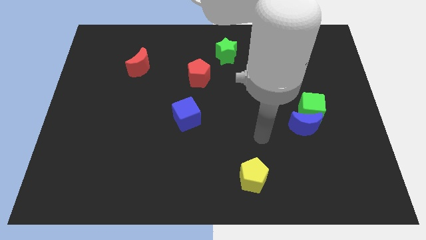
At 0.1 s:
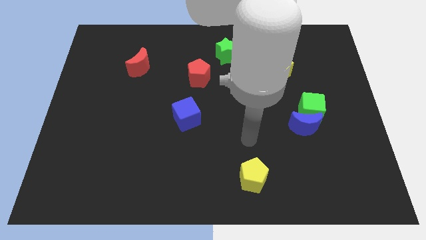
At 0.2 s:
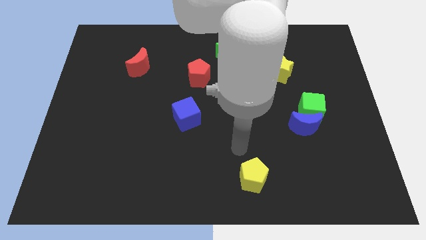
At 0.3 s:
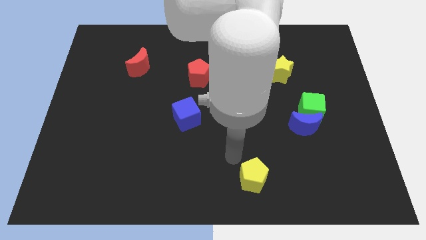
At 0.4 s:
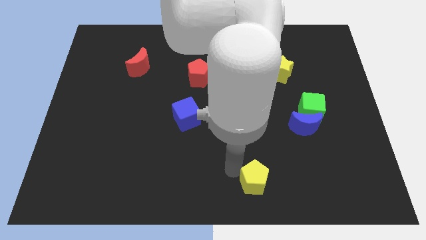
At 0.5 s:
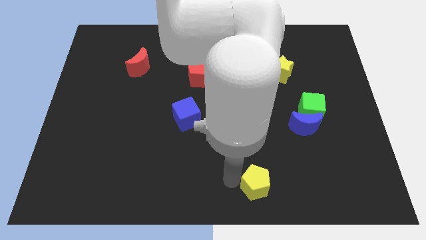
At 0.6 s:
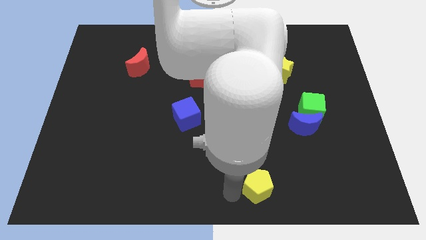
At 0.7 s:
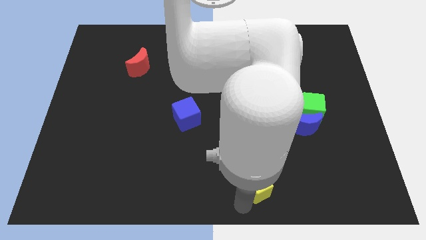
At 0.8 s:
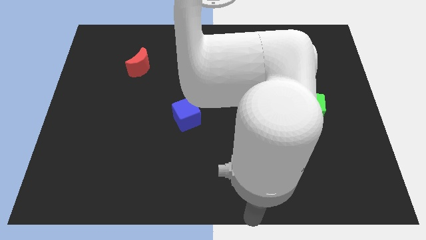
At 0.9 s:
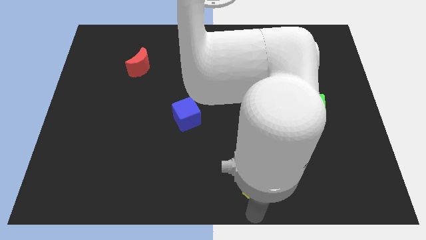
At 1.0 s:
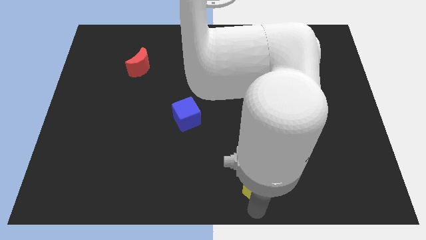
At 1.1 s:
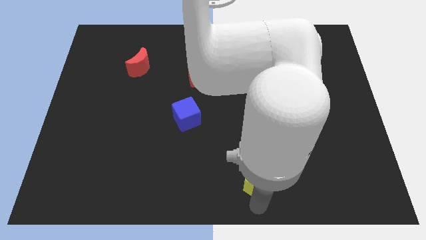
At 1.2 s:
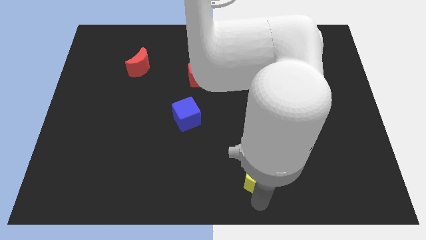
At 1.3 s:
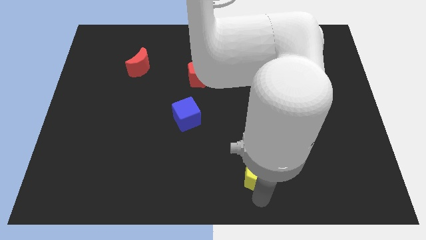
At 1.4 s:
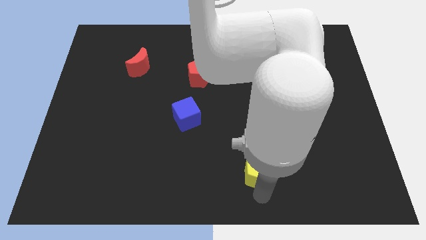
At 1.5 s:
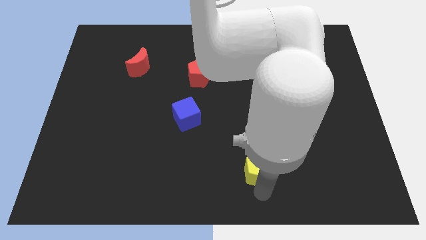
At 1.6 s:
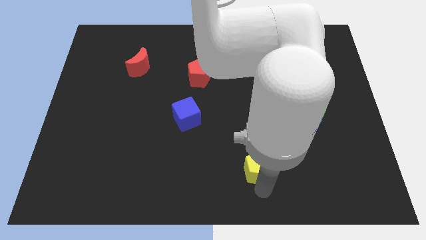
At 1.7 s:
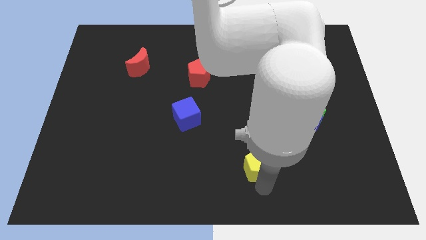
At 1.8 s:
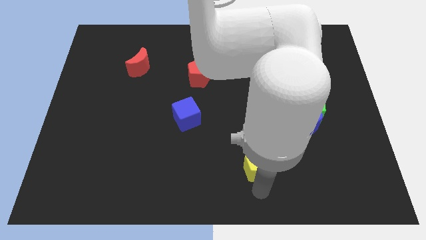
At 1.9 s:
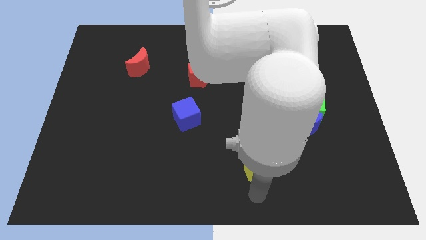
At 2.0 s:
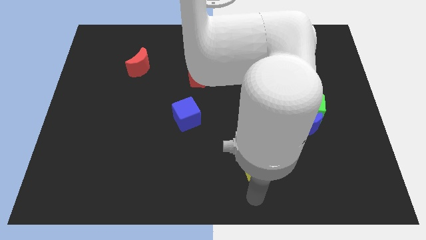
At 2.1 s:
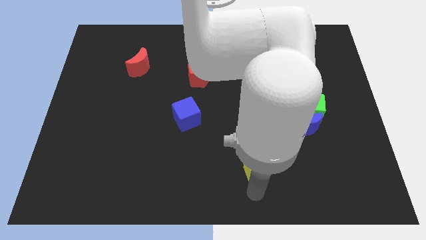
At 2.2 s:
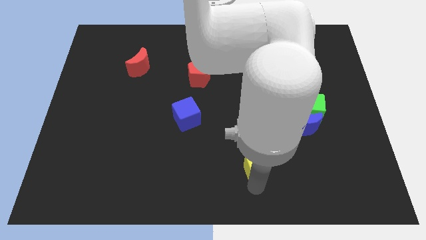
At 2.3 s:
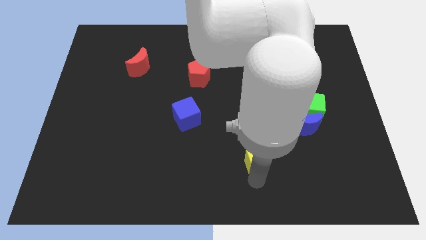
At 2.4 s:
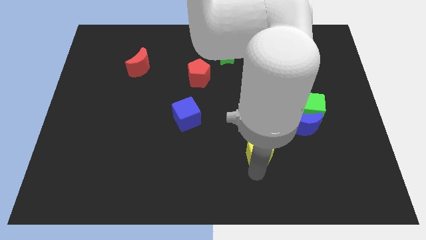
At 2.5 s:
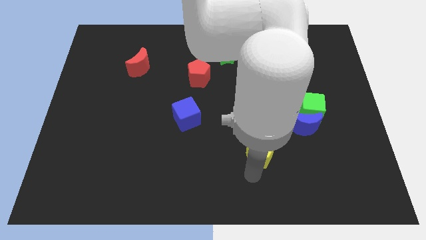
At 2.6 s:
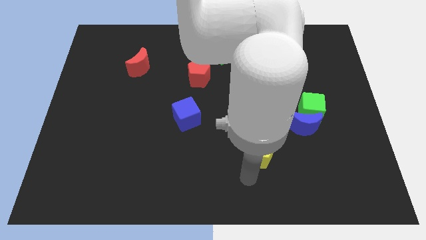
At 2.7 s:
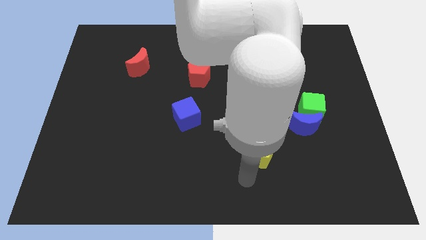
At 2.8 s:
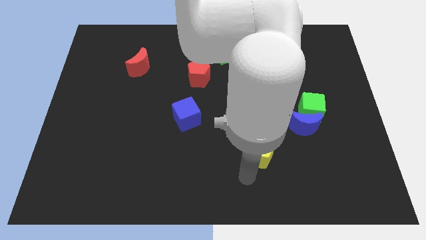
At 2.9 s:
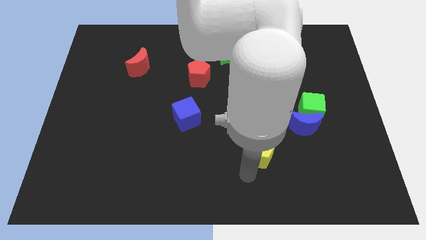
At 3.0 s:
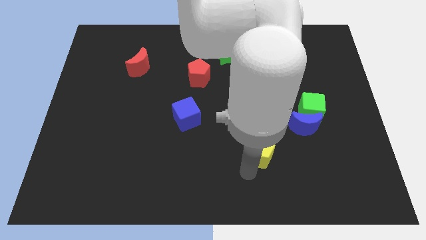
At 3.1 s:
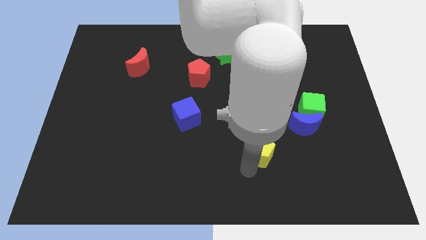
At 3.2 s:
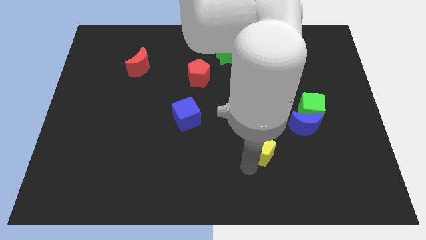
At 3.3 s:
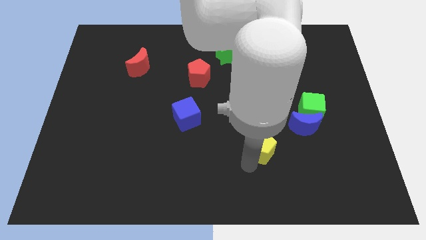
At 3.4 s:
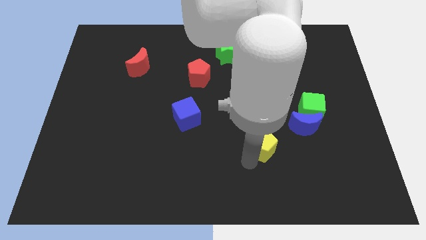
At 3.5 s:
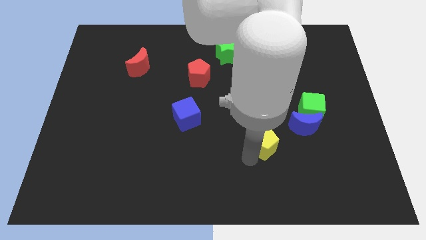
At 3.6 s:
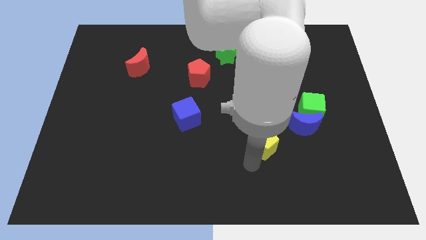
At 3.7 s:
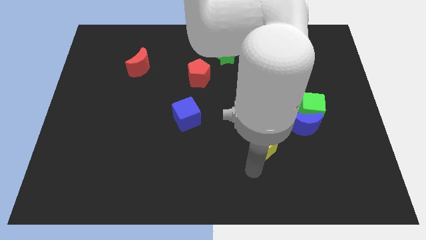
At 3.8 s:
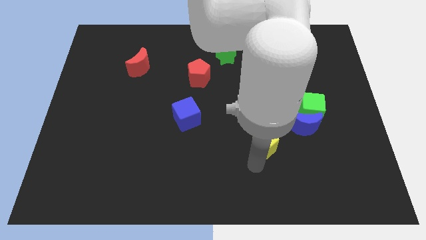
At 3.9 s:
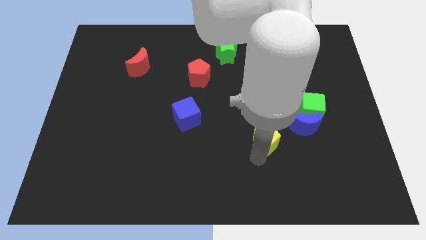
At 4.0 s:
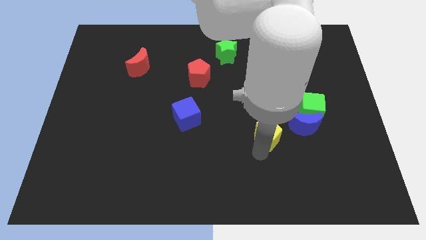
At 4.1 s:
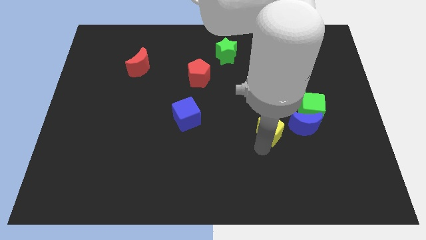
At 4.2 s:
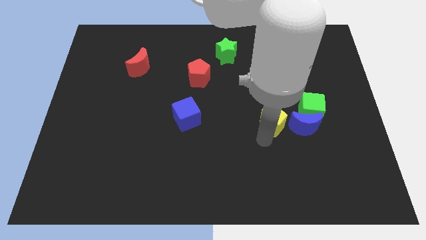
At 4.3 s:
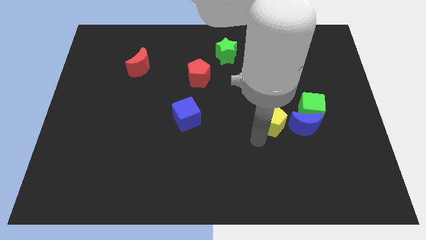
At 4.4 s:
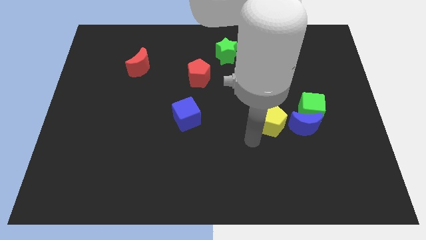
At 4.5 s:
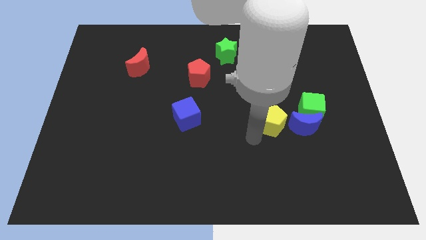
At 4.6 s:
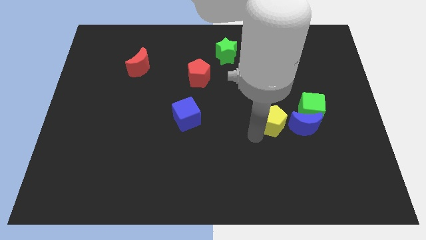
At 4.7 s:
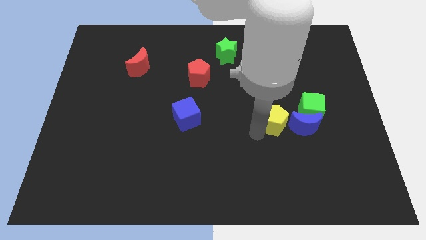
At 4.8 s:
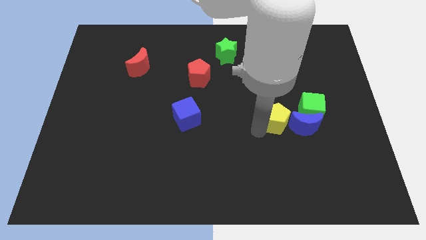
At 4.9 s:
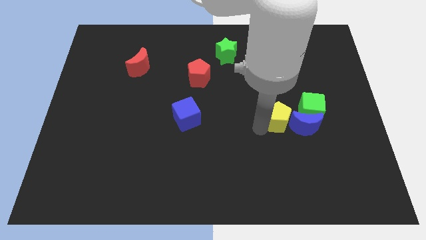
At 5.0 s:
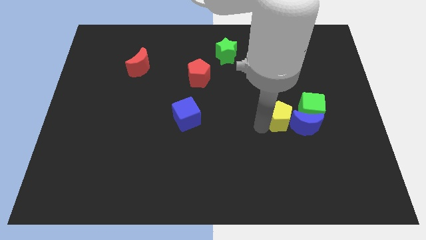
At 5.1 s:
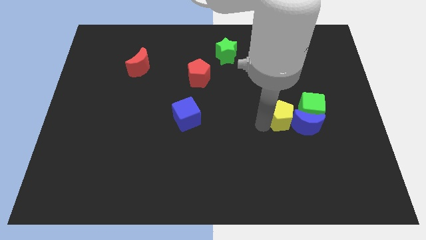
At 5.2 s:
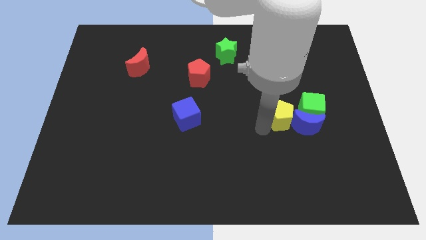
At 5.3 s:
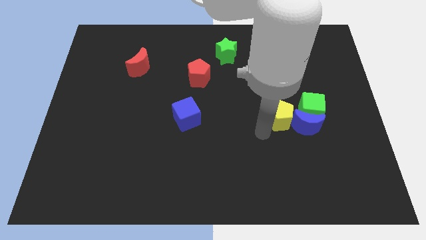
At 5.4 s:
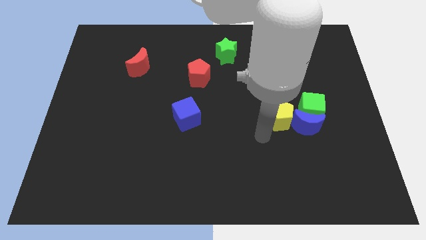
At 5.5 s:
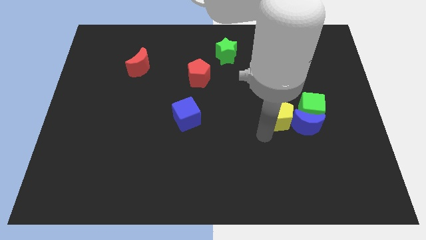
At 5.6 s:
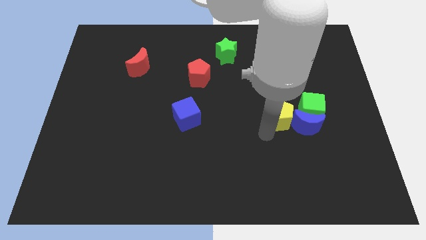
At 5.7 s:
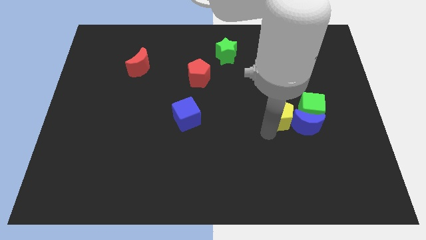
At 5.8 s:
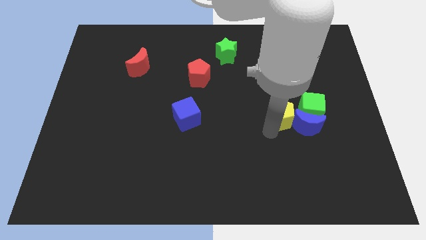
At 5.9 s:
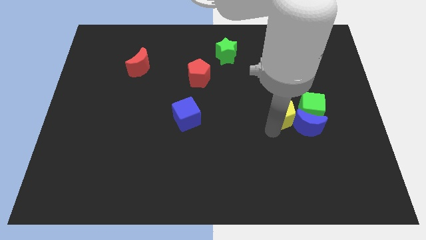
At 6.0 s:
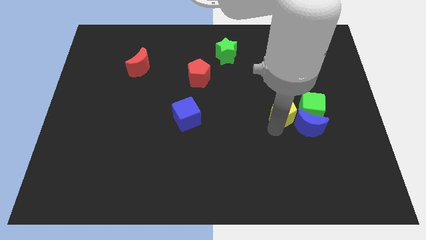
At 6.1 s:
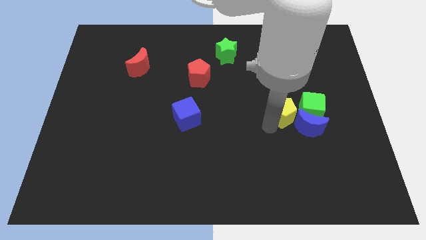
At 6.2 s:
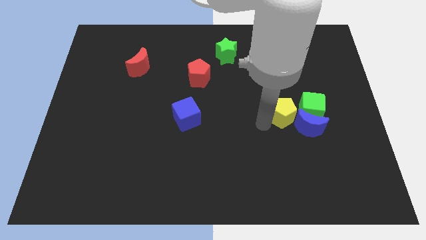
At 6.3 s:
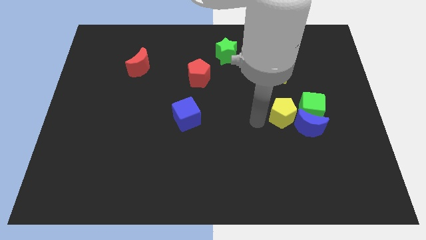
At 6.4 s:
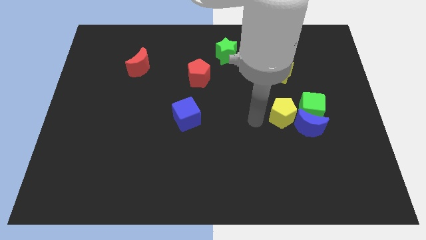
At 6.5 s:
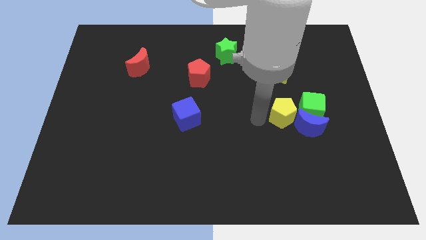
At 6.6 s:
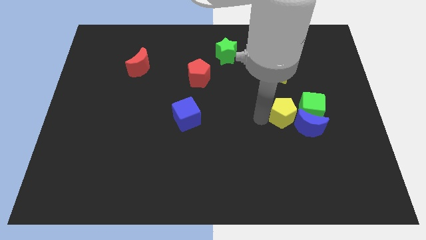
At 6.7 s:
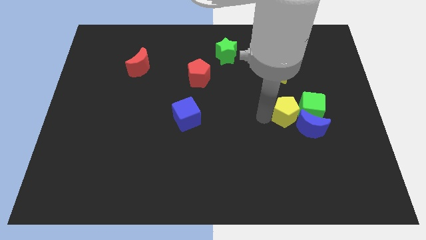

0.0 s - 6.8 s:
push the yellow pentagon to the green cube

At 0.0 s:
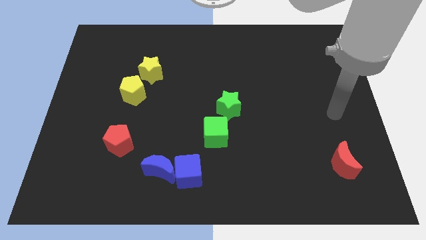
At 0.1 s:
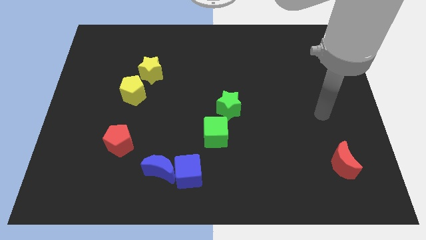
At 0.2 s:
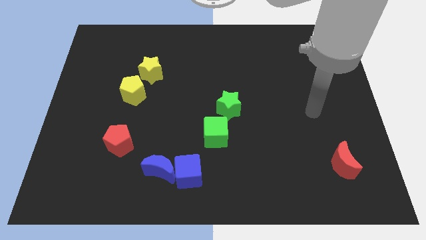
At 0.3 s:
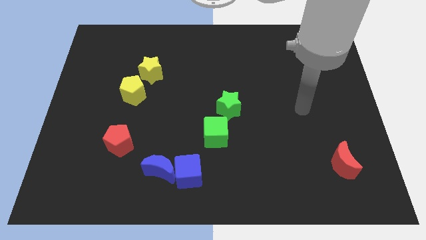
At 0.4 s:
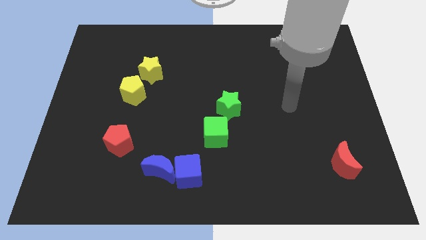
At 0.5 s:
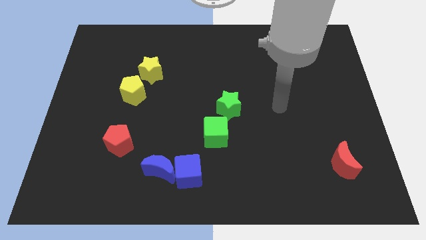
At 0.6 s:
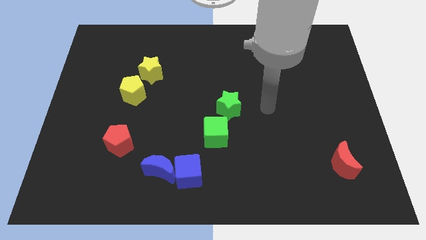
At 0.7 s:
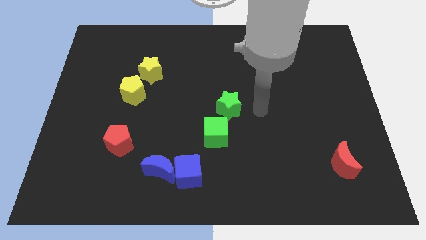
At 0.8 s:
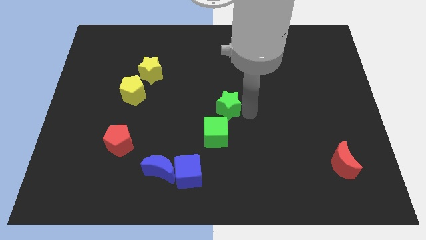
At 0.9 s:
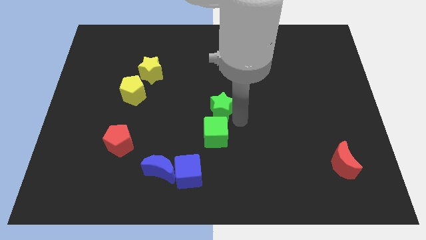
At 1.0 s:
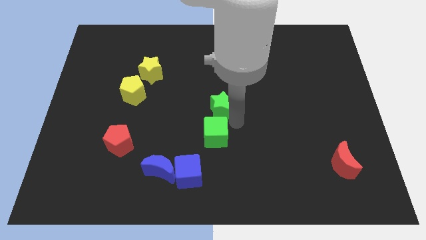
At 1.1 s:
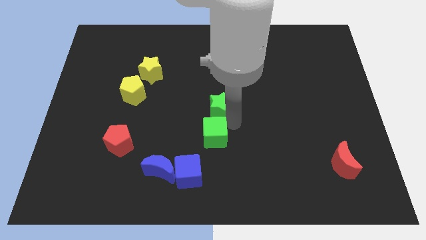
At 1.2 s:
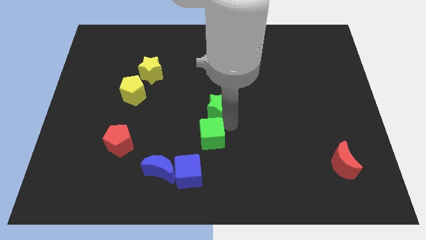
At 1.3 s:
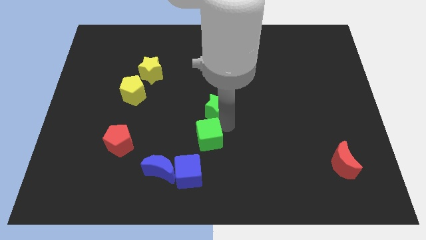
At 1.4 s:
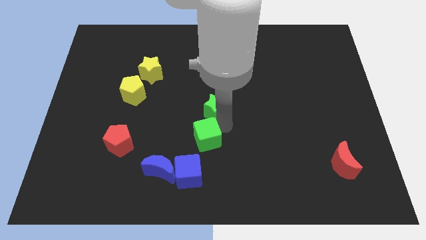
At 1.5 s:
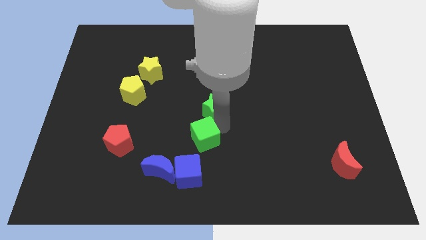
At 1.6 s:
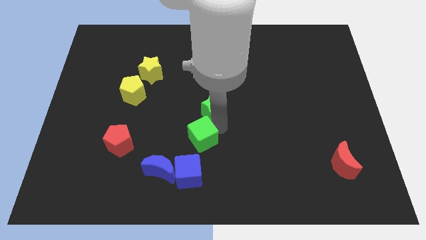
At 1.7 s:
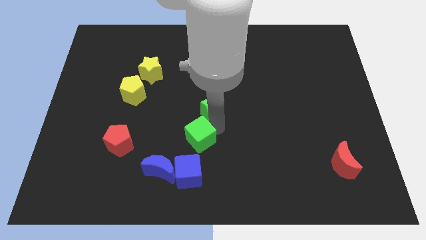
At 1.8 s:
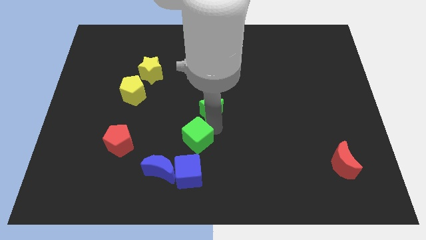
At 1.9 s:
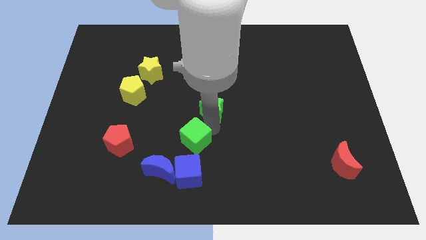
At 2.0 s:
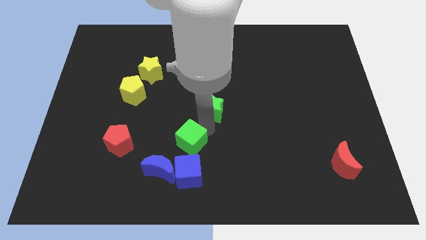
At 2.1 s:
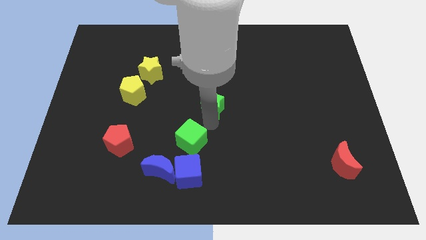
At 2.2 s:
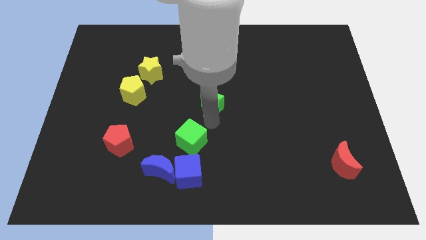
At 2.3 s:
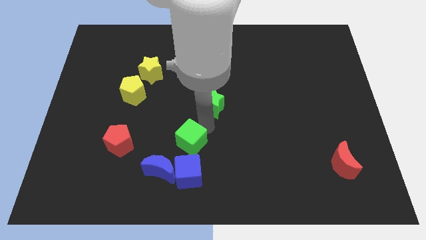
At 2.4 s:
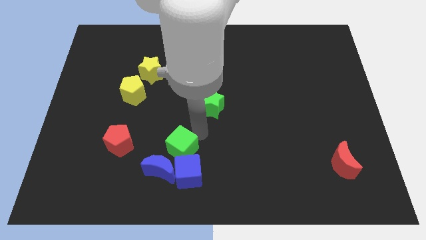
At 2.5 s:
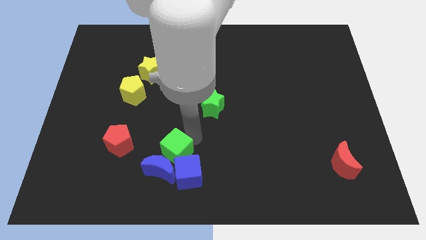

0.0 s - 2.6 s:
move the green cube next to the blue moon
